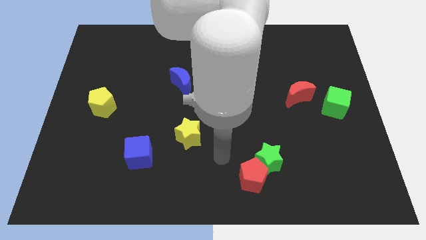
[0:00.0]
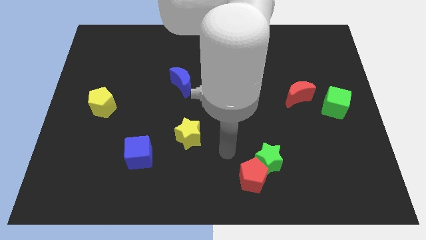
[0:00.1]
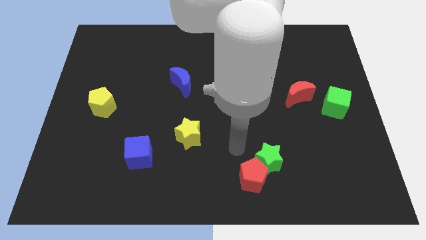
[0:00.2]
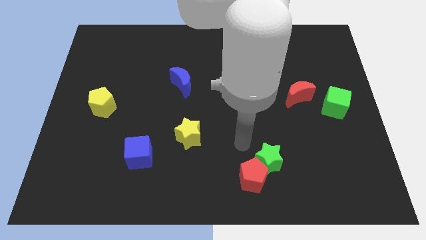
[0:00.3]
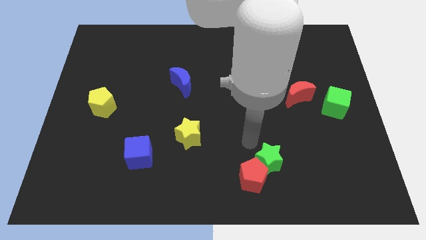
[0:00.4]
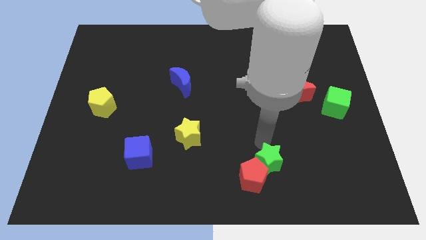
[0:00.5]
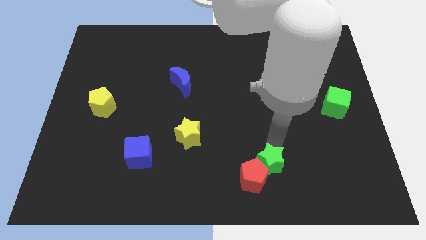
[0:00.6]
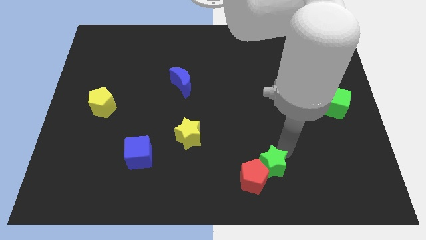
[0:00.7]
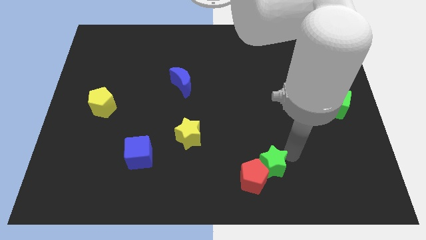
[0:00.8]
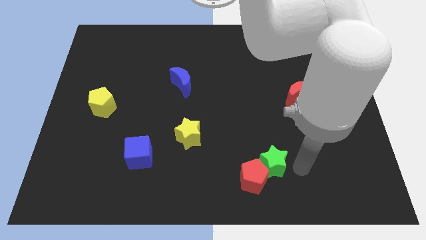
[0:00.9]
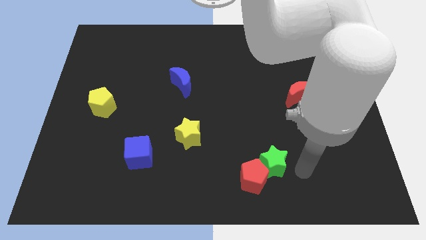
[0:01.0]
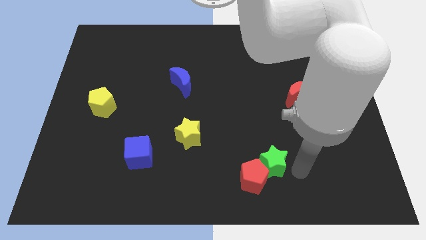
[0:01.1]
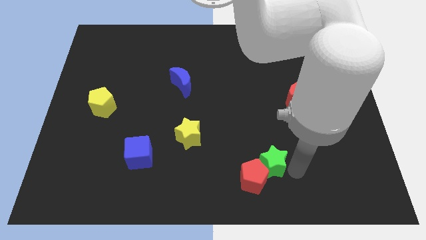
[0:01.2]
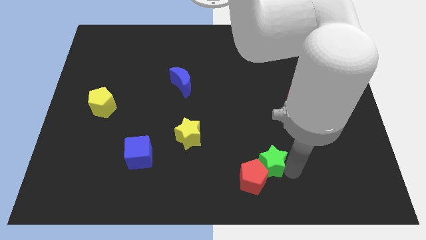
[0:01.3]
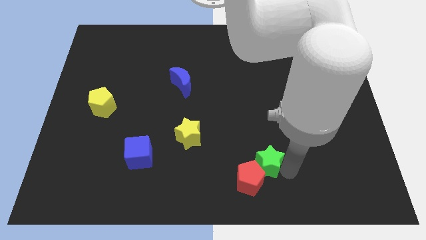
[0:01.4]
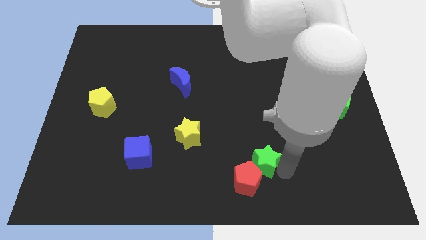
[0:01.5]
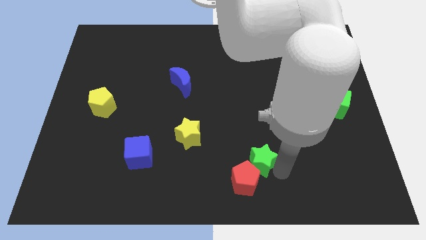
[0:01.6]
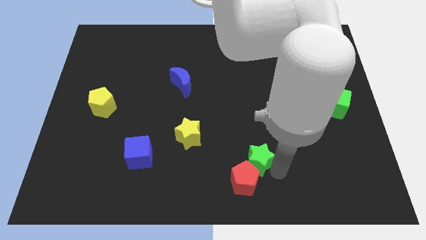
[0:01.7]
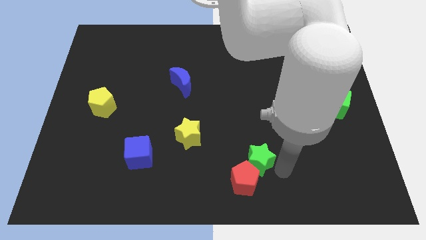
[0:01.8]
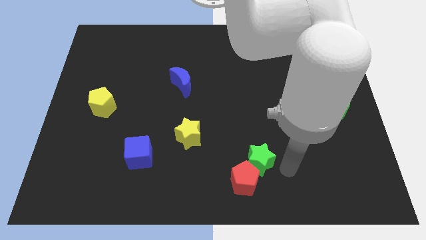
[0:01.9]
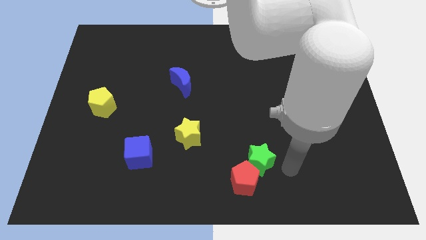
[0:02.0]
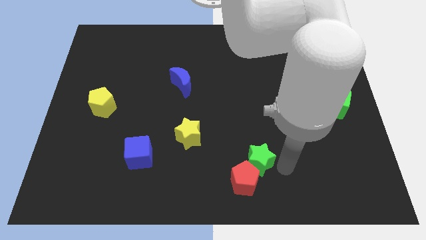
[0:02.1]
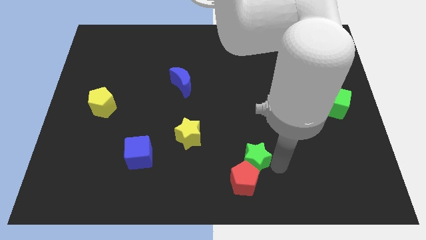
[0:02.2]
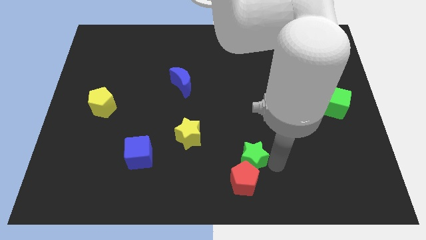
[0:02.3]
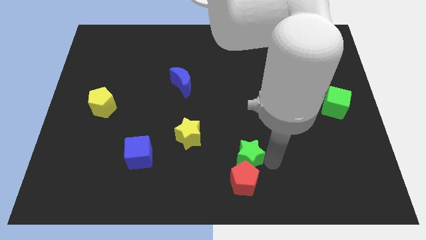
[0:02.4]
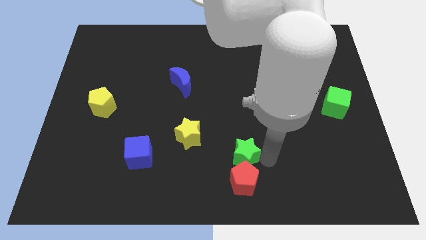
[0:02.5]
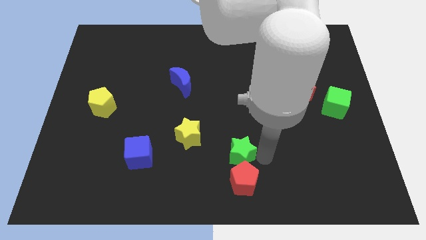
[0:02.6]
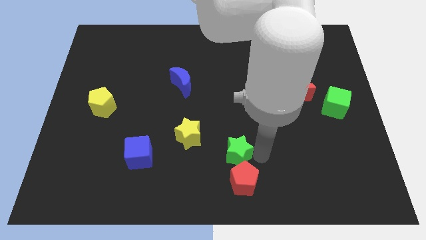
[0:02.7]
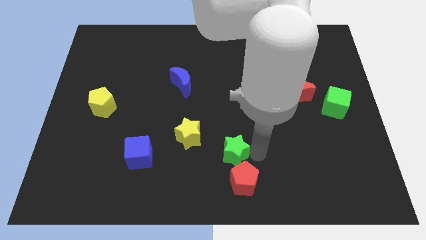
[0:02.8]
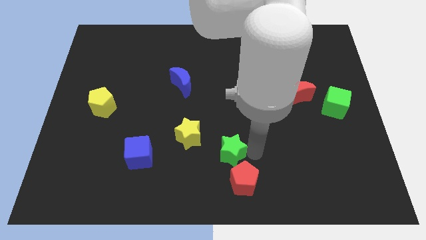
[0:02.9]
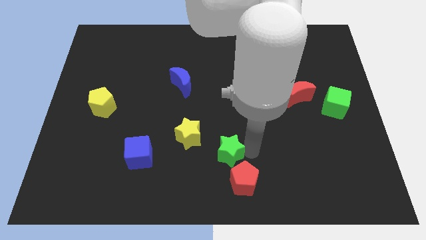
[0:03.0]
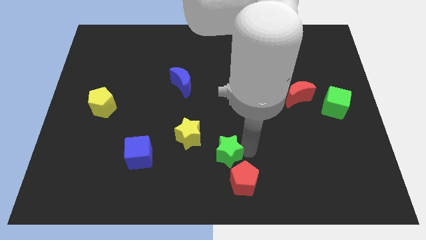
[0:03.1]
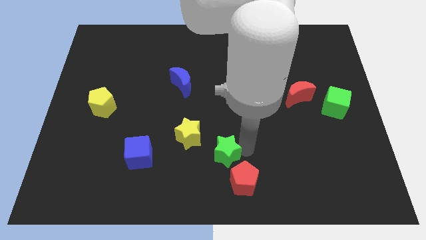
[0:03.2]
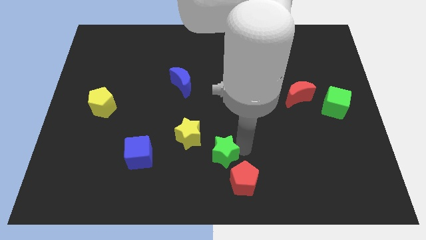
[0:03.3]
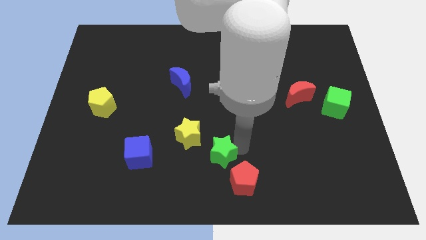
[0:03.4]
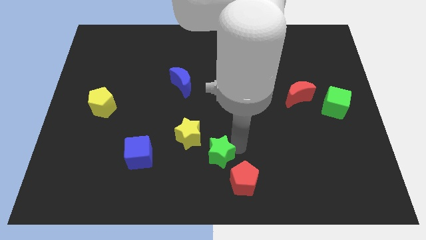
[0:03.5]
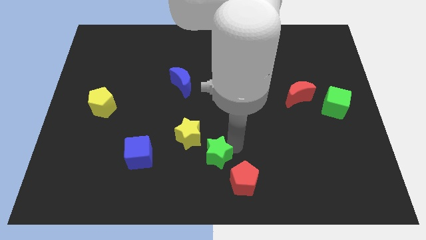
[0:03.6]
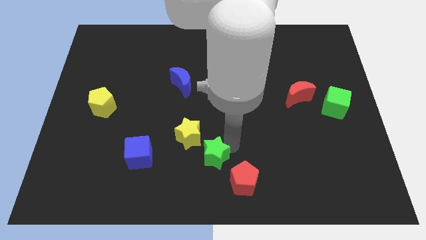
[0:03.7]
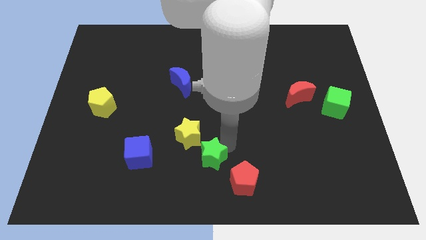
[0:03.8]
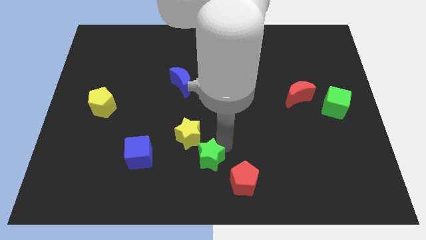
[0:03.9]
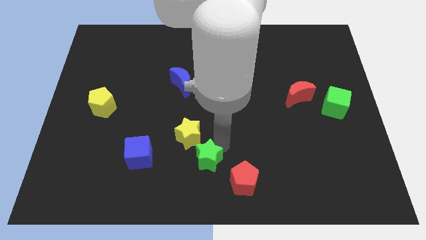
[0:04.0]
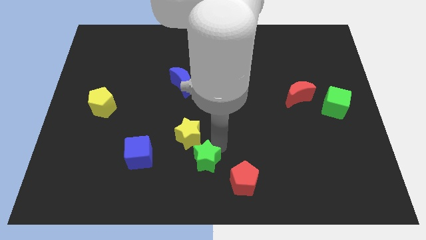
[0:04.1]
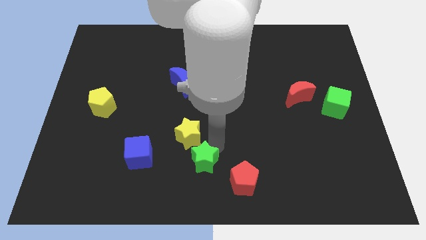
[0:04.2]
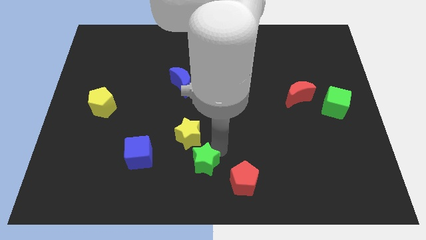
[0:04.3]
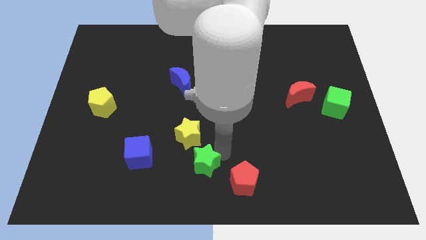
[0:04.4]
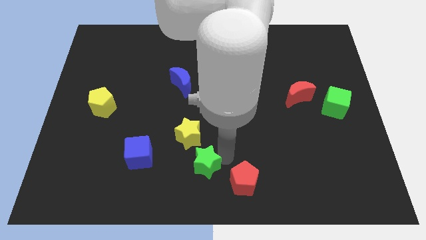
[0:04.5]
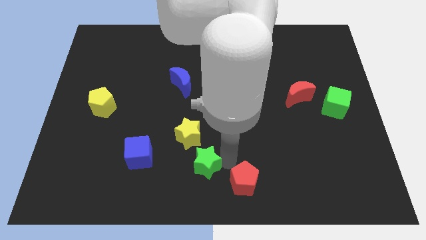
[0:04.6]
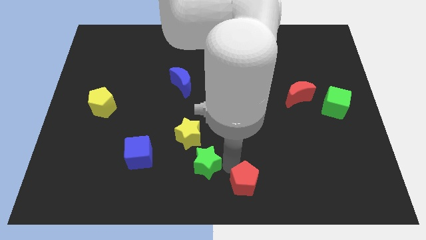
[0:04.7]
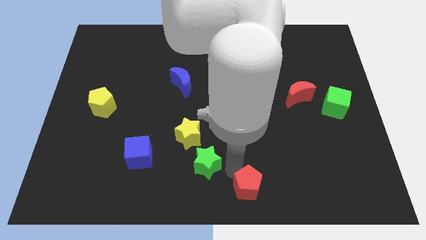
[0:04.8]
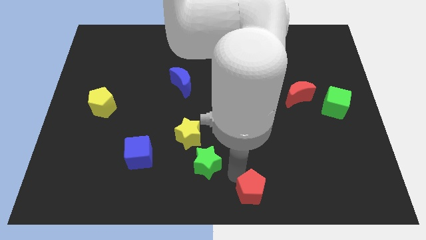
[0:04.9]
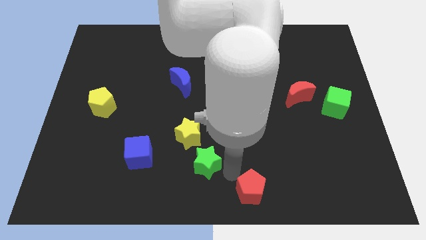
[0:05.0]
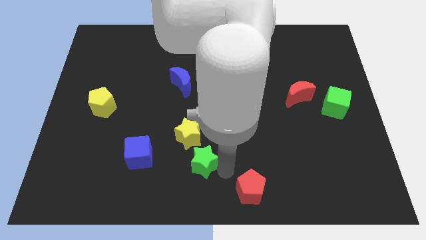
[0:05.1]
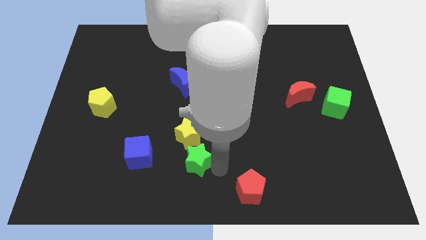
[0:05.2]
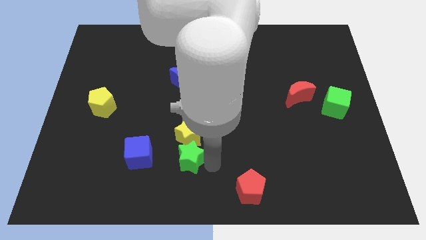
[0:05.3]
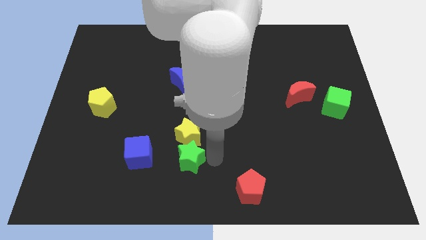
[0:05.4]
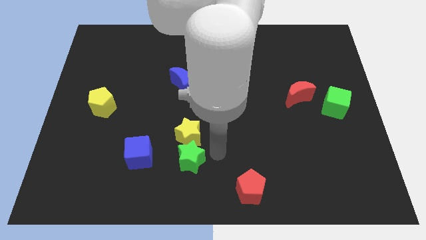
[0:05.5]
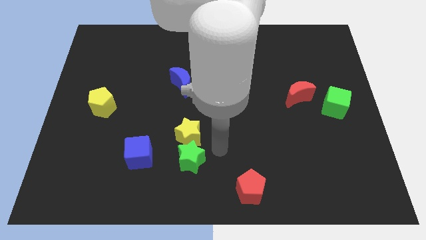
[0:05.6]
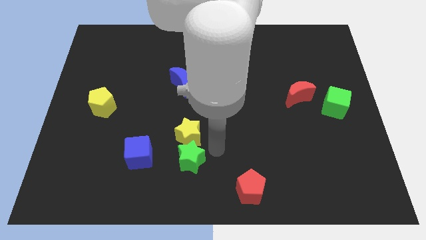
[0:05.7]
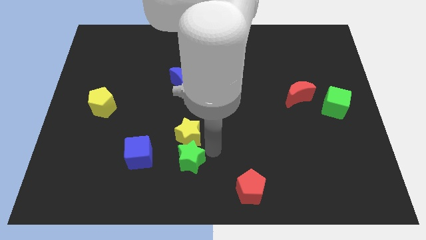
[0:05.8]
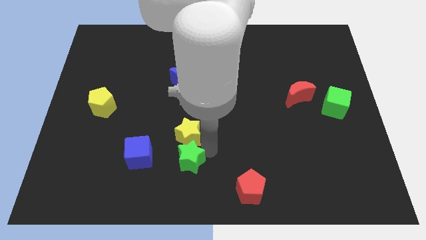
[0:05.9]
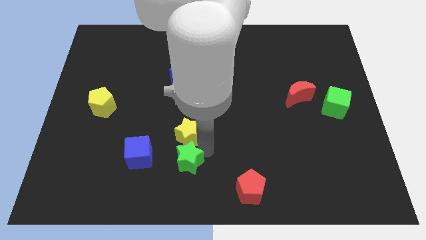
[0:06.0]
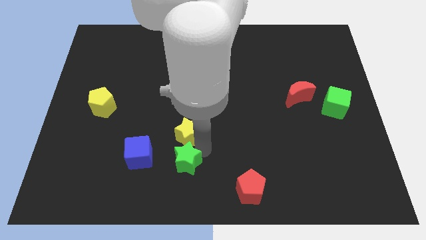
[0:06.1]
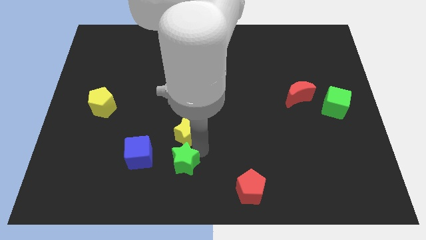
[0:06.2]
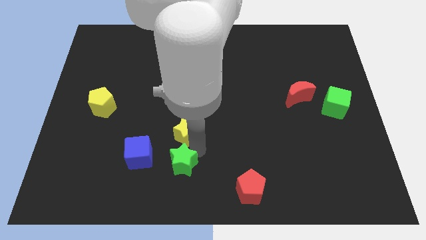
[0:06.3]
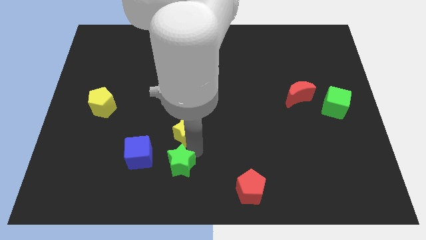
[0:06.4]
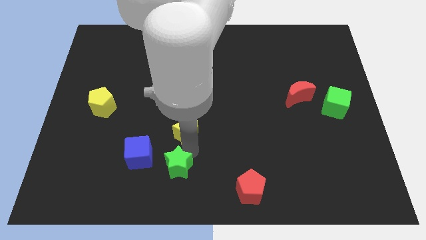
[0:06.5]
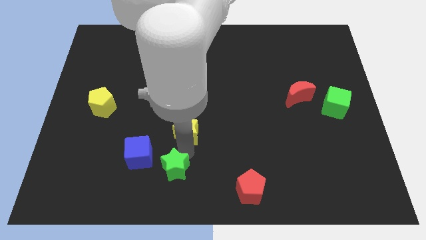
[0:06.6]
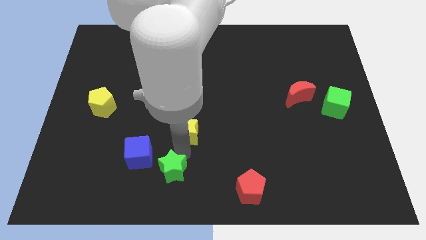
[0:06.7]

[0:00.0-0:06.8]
push the green star left

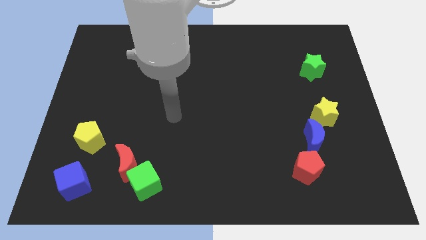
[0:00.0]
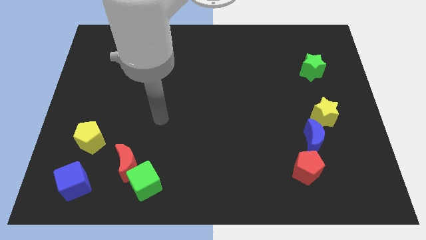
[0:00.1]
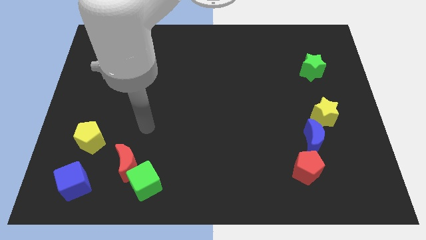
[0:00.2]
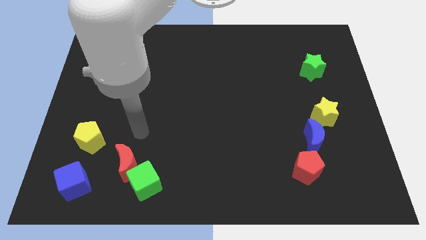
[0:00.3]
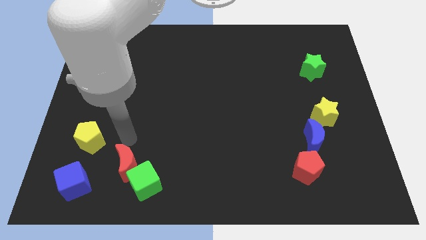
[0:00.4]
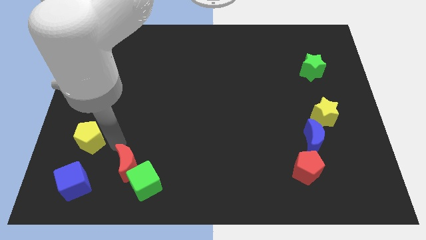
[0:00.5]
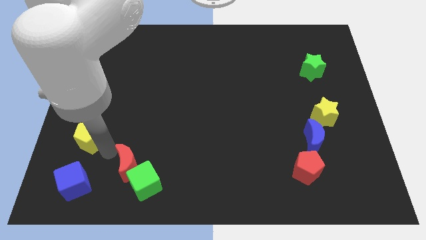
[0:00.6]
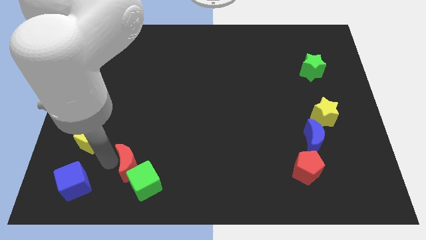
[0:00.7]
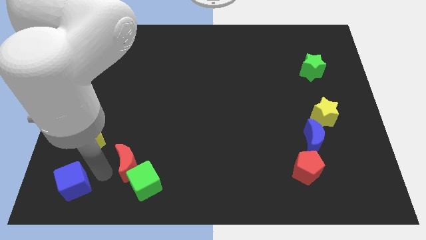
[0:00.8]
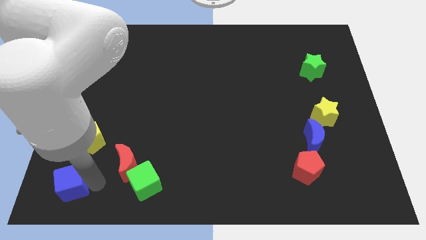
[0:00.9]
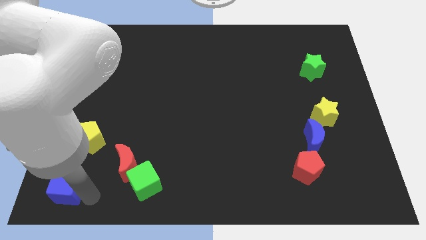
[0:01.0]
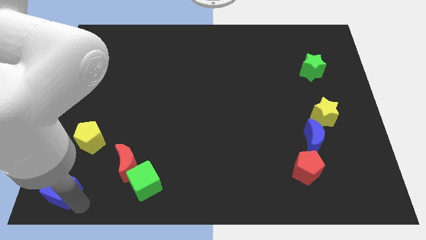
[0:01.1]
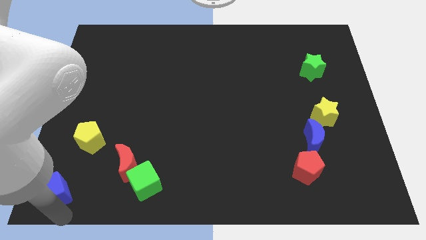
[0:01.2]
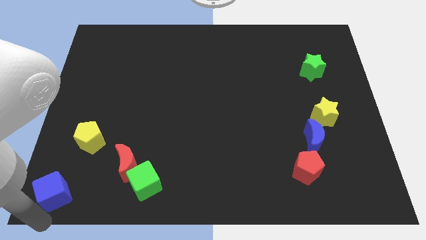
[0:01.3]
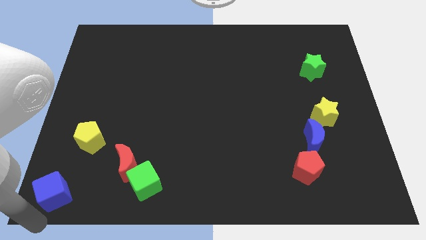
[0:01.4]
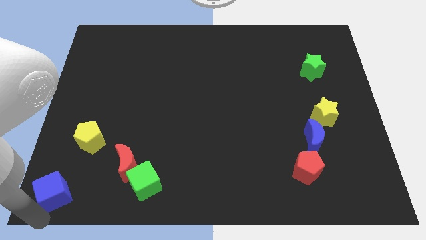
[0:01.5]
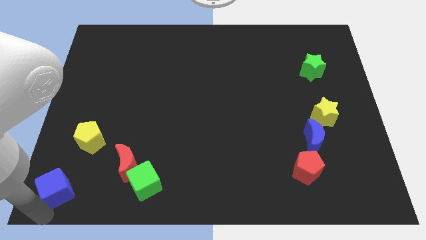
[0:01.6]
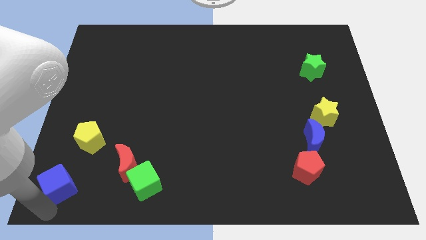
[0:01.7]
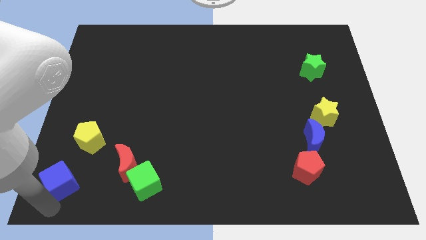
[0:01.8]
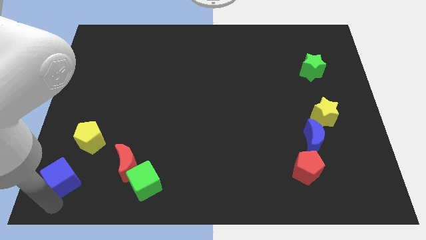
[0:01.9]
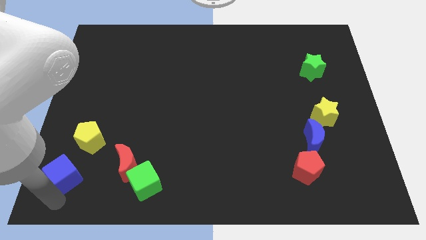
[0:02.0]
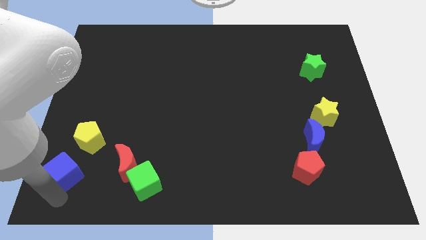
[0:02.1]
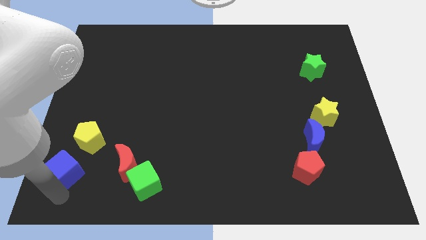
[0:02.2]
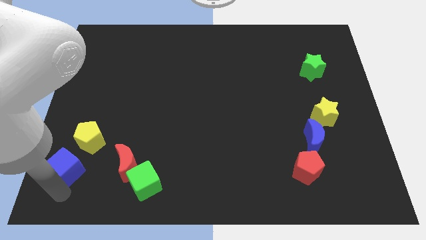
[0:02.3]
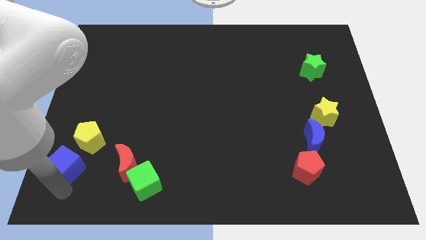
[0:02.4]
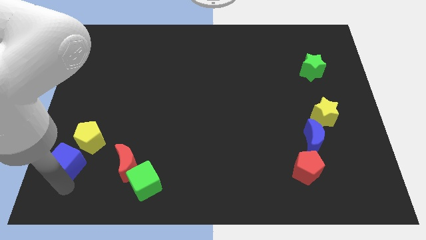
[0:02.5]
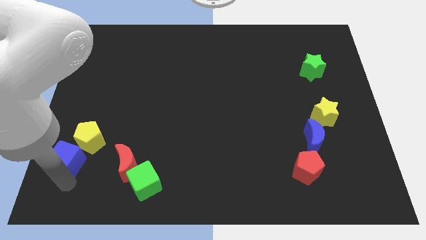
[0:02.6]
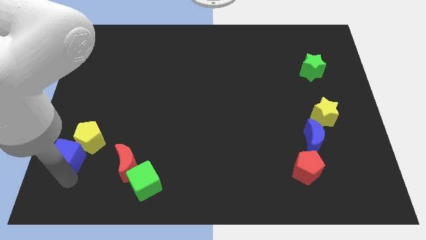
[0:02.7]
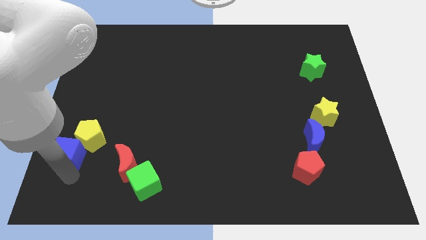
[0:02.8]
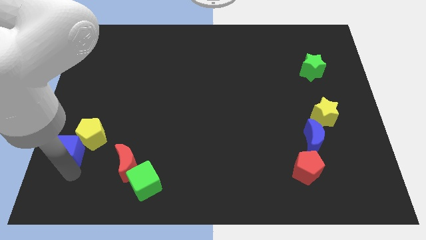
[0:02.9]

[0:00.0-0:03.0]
slide the blue cube a little bit upwards
